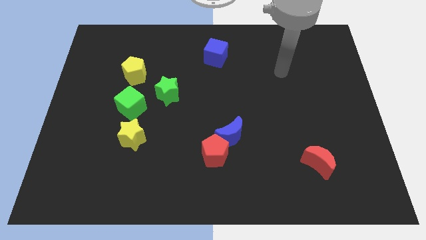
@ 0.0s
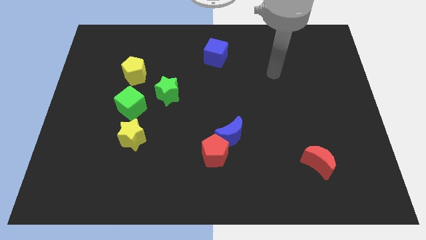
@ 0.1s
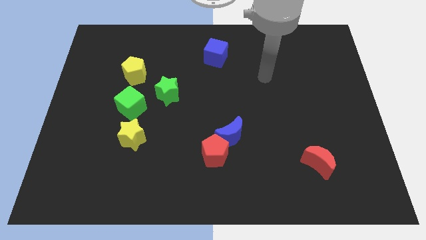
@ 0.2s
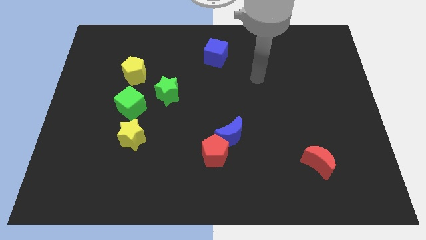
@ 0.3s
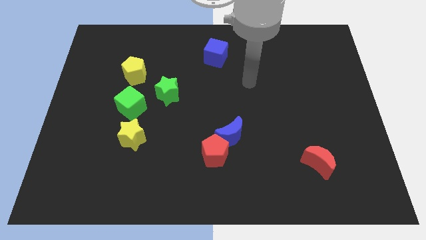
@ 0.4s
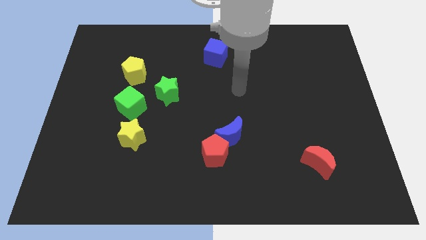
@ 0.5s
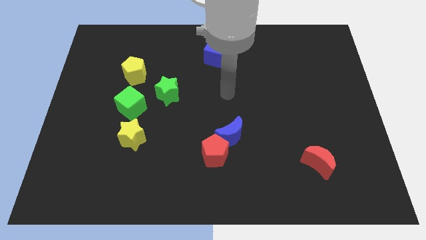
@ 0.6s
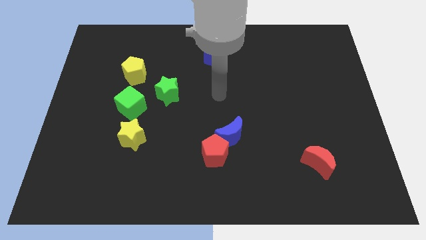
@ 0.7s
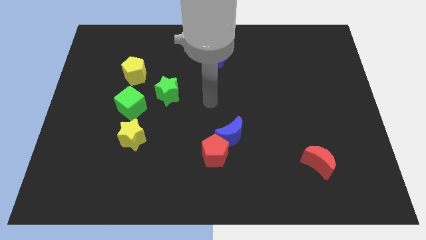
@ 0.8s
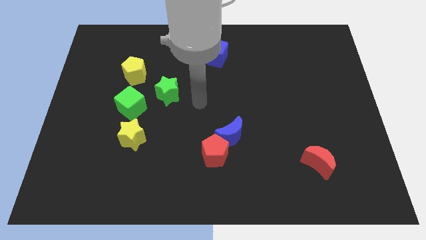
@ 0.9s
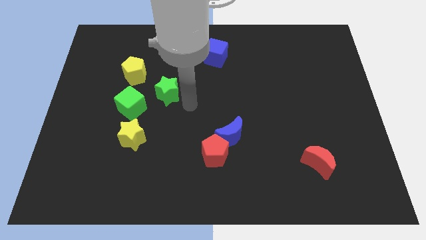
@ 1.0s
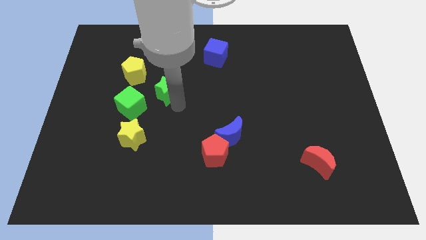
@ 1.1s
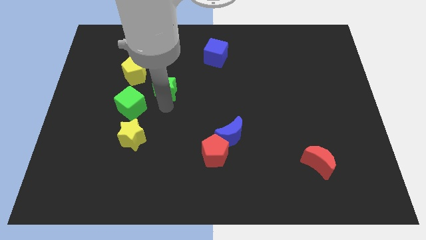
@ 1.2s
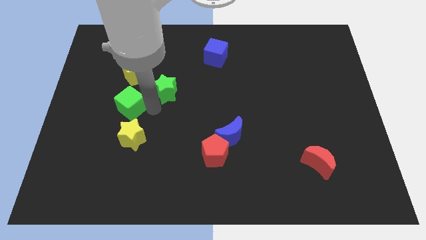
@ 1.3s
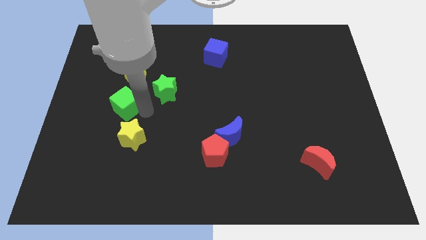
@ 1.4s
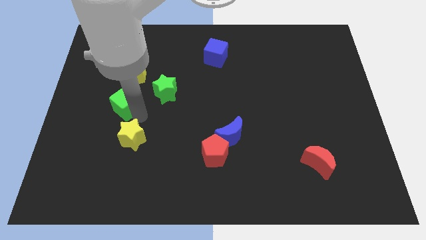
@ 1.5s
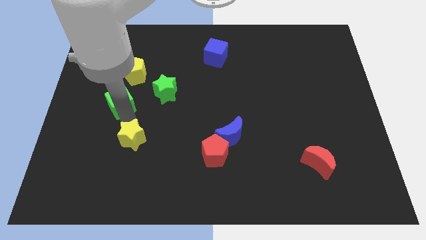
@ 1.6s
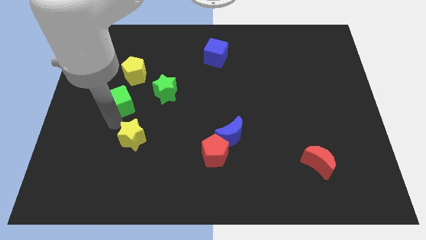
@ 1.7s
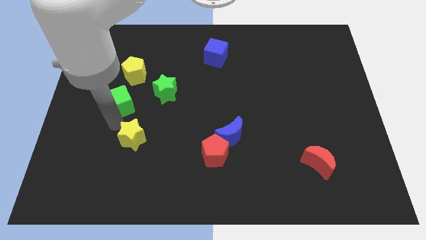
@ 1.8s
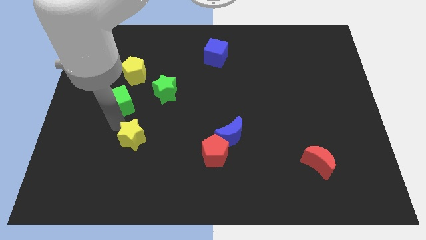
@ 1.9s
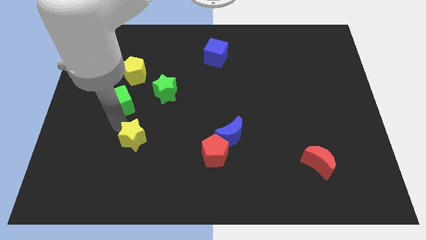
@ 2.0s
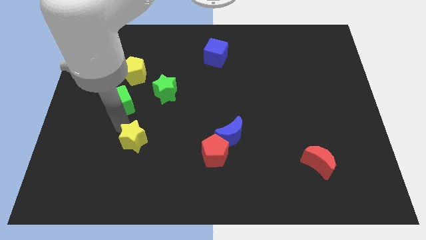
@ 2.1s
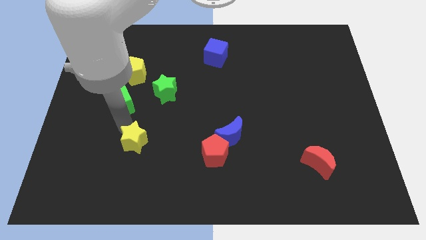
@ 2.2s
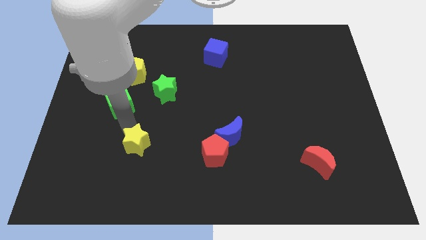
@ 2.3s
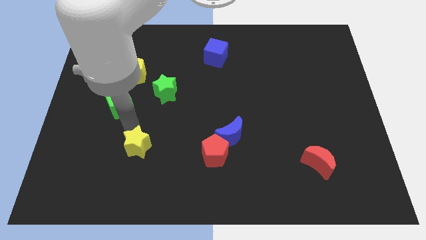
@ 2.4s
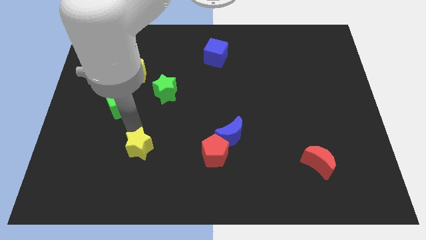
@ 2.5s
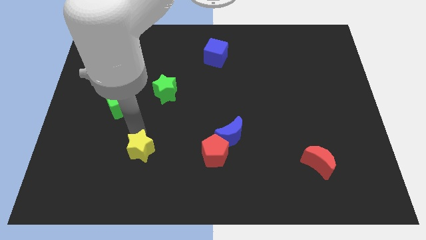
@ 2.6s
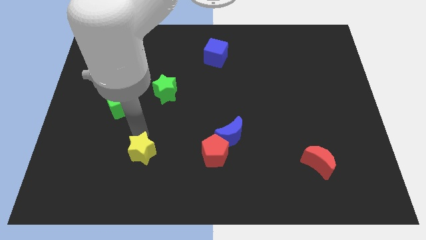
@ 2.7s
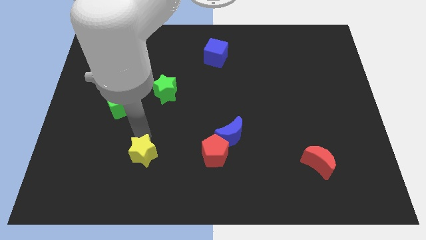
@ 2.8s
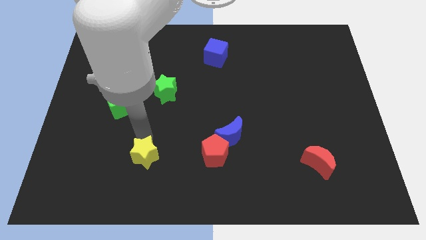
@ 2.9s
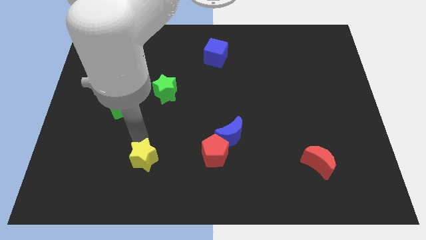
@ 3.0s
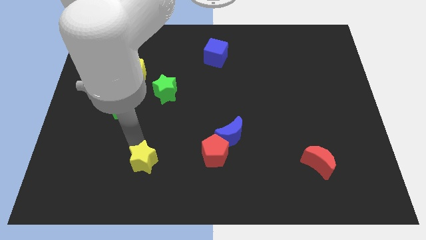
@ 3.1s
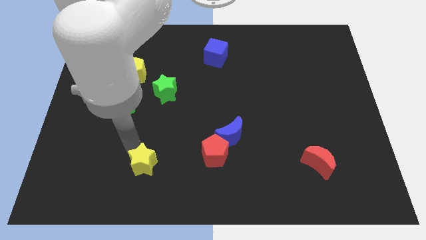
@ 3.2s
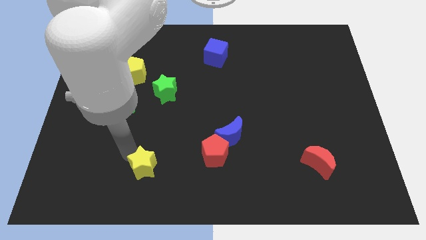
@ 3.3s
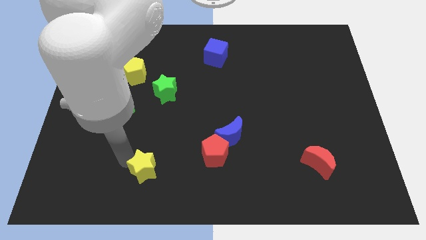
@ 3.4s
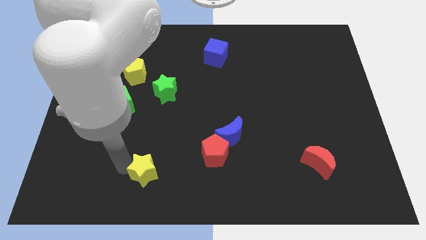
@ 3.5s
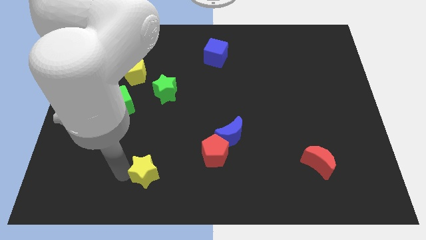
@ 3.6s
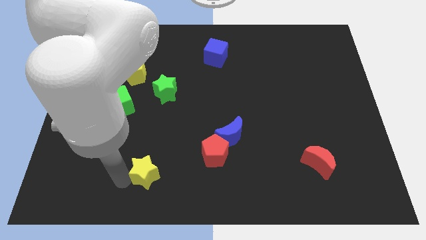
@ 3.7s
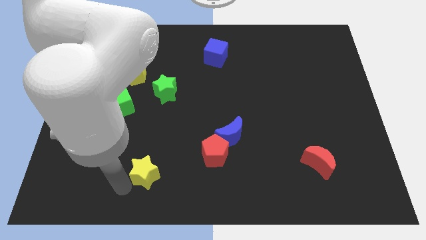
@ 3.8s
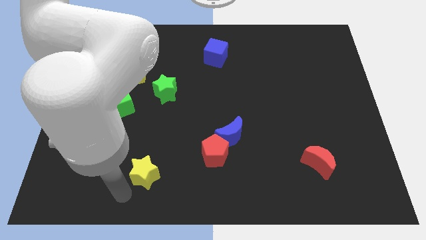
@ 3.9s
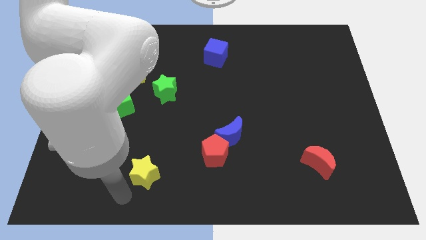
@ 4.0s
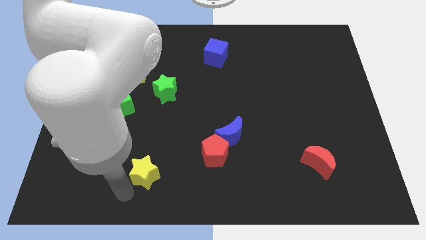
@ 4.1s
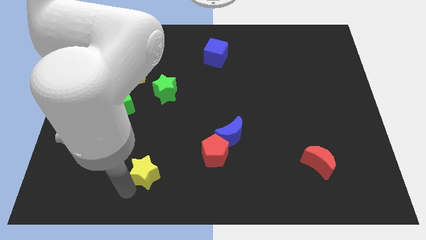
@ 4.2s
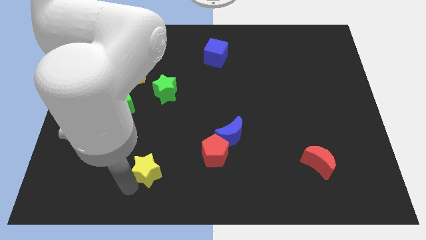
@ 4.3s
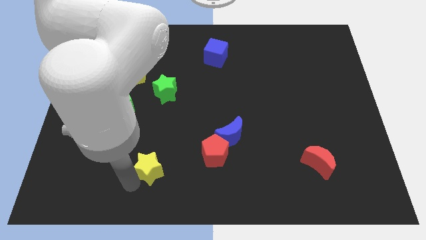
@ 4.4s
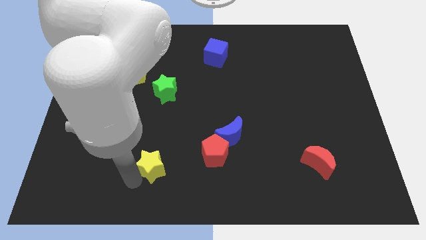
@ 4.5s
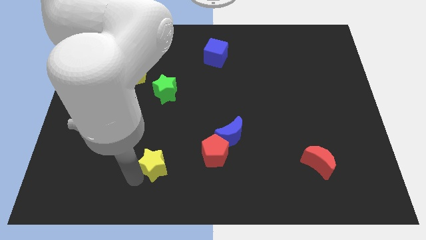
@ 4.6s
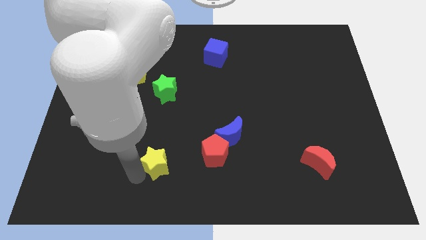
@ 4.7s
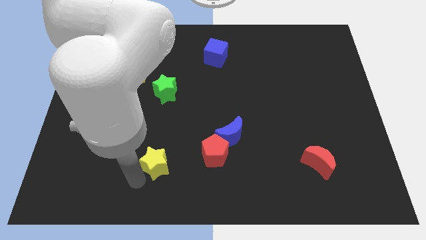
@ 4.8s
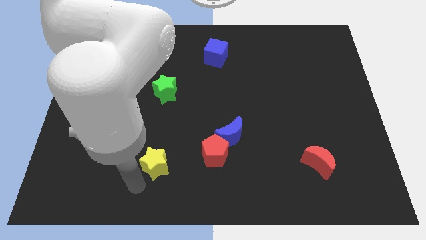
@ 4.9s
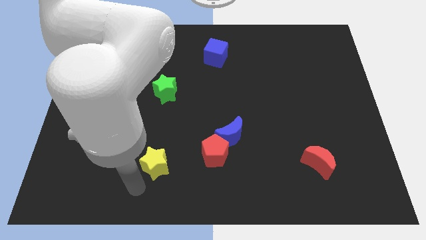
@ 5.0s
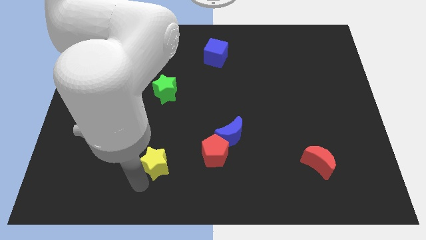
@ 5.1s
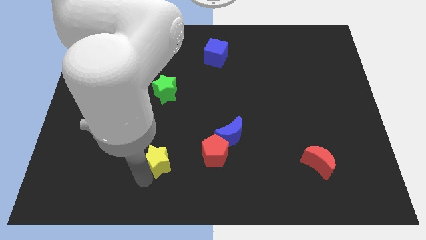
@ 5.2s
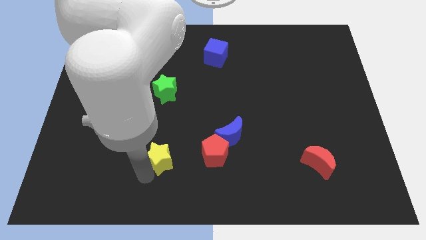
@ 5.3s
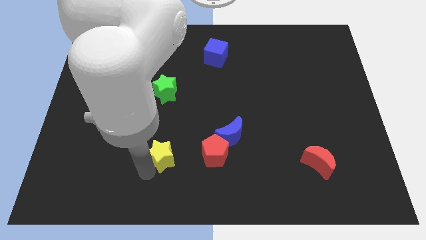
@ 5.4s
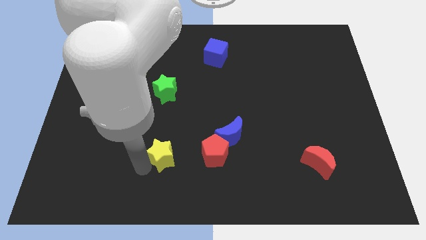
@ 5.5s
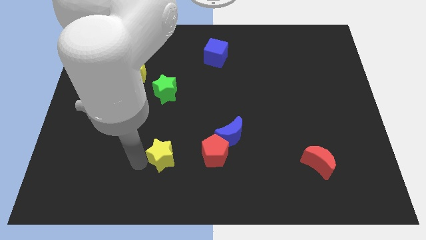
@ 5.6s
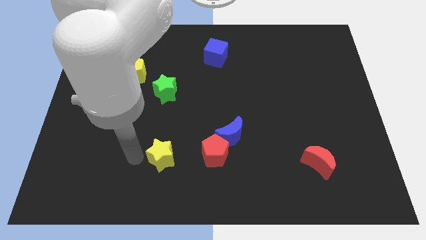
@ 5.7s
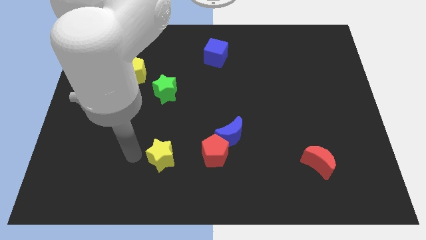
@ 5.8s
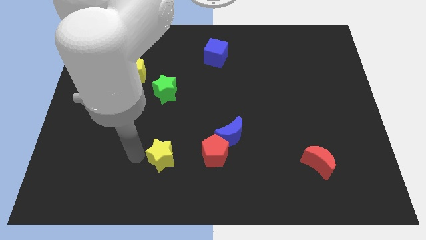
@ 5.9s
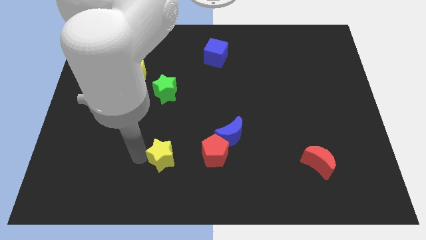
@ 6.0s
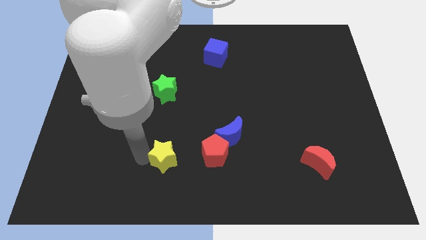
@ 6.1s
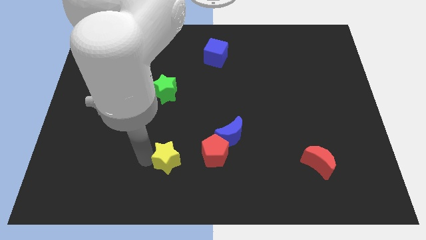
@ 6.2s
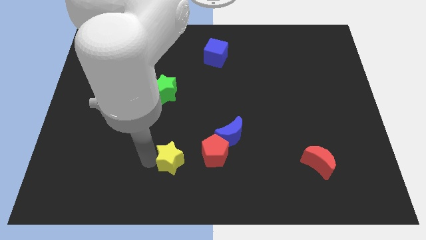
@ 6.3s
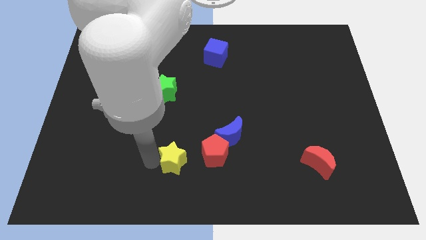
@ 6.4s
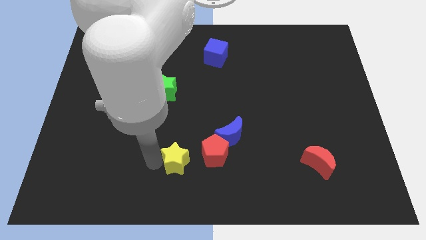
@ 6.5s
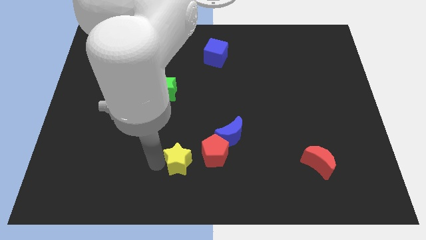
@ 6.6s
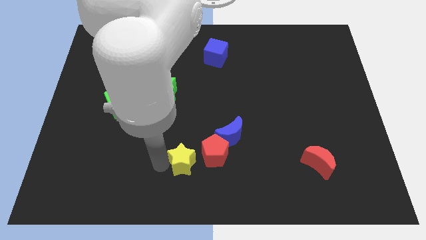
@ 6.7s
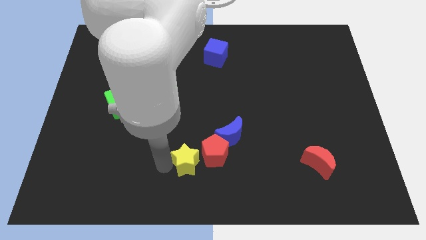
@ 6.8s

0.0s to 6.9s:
slide the yellow star next to the red pentagon

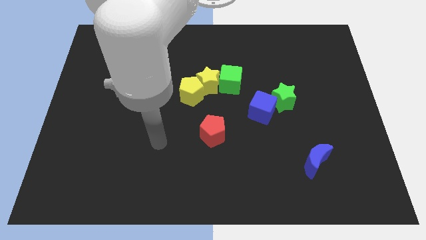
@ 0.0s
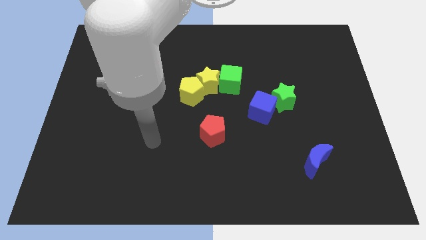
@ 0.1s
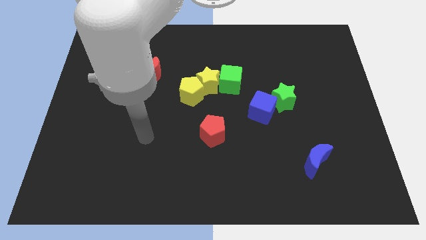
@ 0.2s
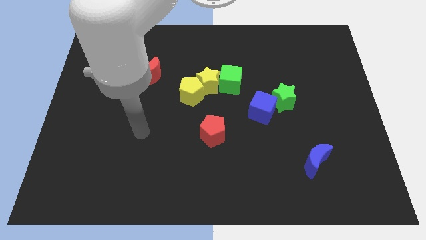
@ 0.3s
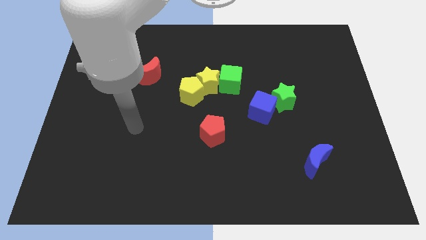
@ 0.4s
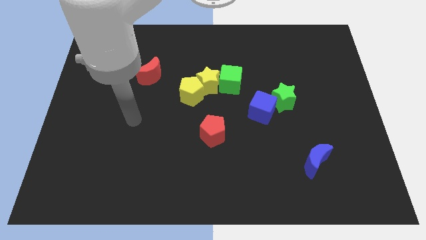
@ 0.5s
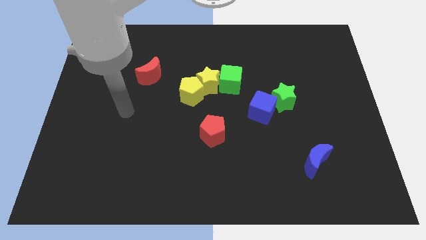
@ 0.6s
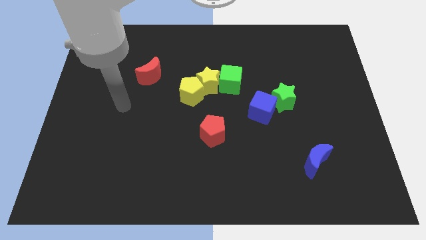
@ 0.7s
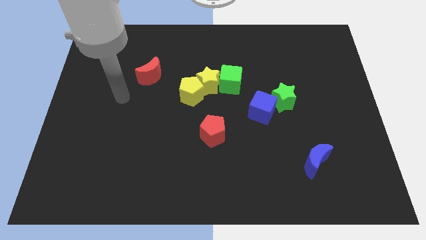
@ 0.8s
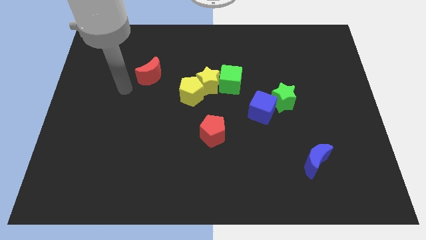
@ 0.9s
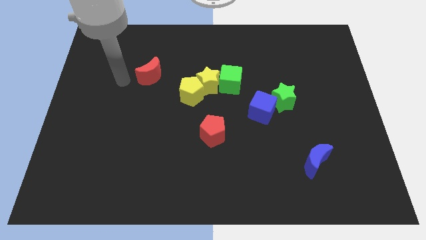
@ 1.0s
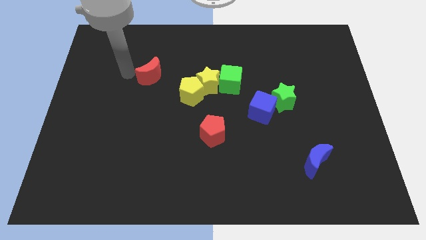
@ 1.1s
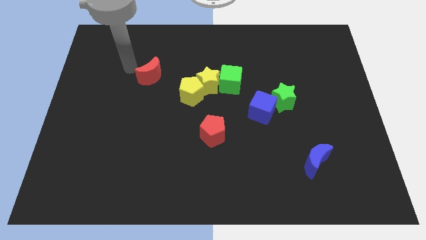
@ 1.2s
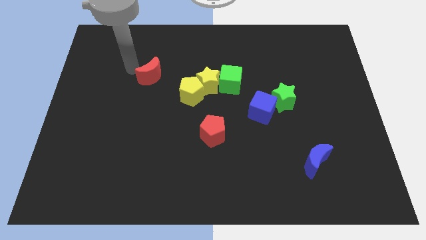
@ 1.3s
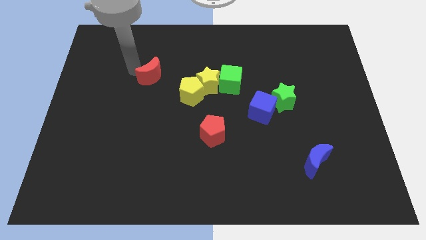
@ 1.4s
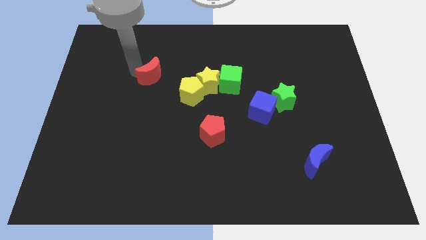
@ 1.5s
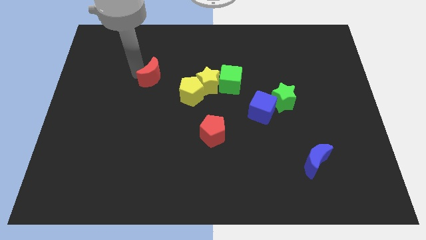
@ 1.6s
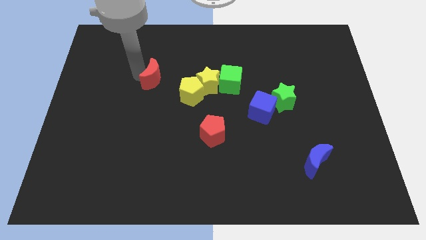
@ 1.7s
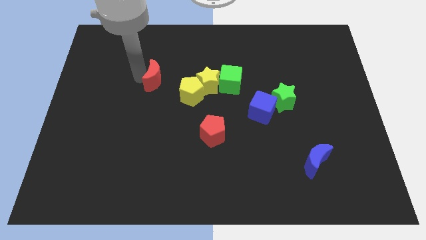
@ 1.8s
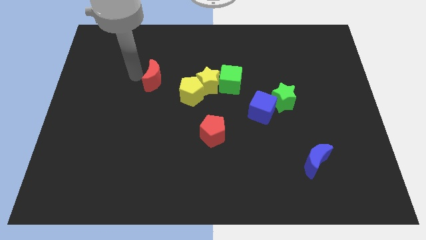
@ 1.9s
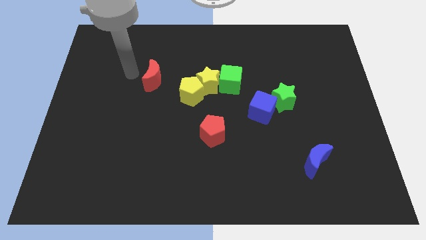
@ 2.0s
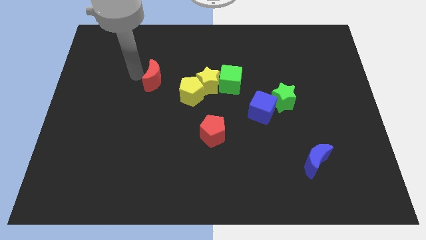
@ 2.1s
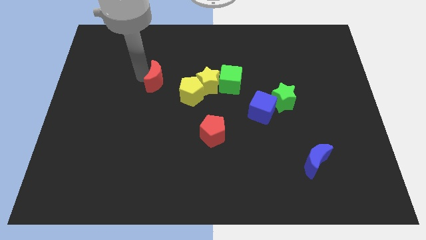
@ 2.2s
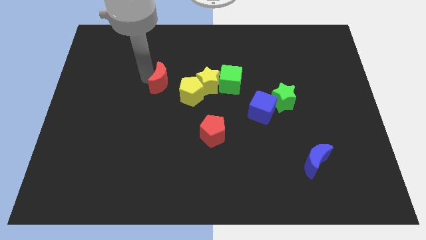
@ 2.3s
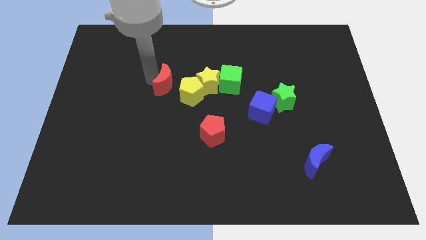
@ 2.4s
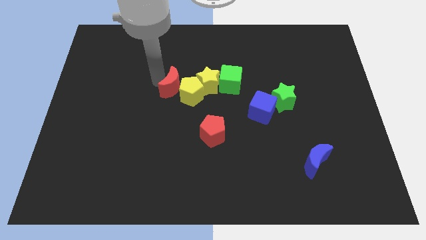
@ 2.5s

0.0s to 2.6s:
put the red moon close to the yellow pentagon
